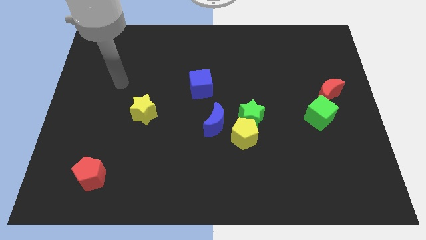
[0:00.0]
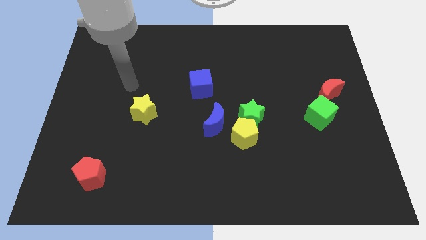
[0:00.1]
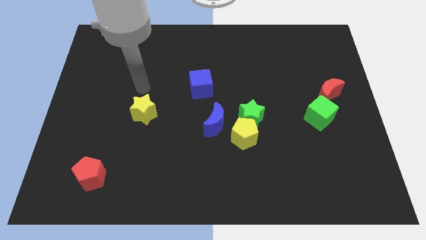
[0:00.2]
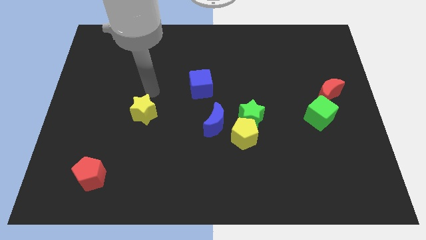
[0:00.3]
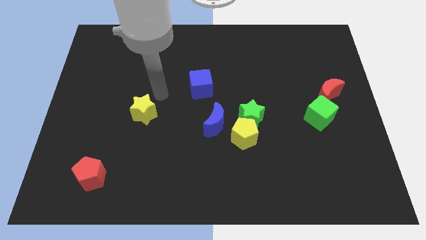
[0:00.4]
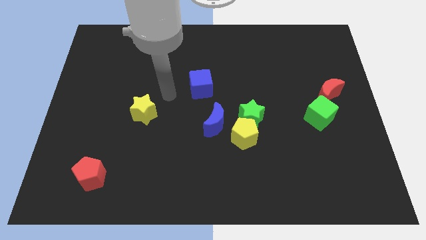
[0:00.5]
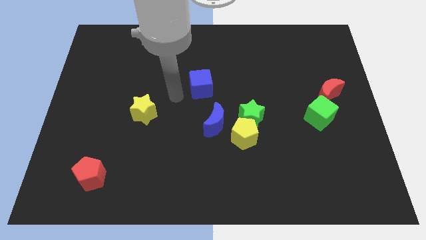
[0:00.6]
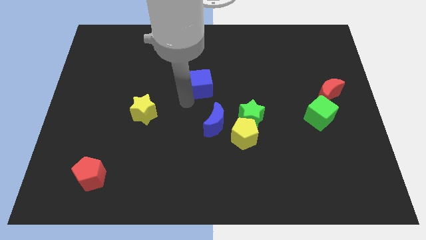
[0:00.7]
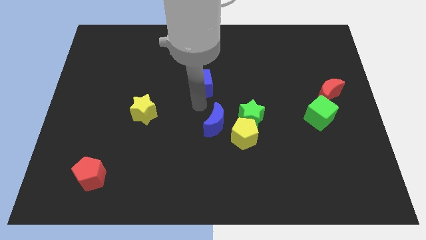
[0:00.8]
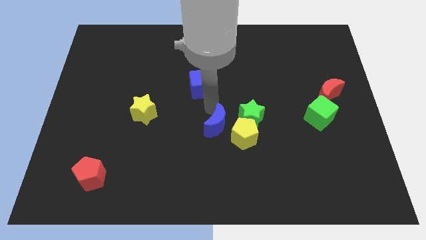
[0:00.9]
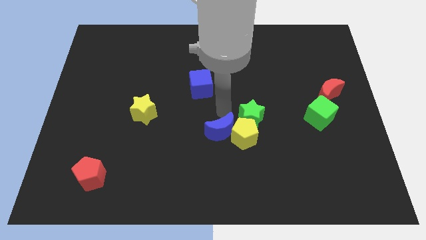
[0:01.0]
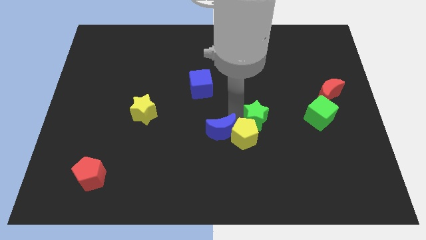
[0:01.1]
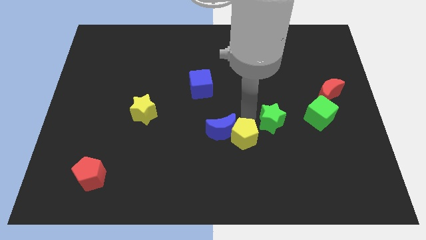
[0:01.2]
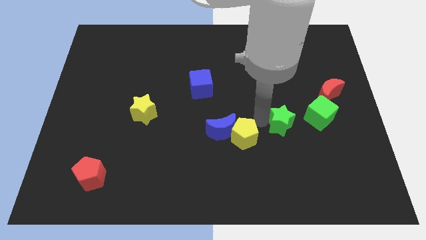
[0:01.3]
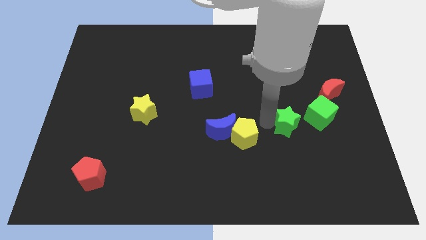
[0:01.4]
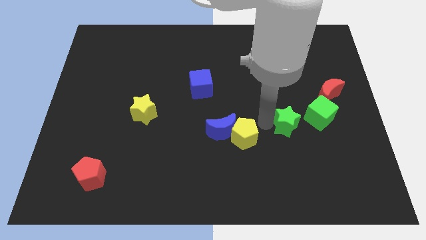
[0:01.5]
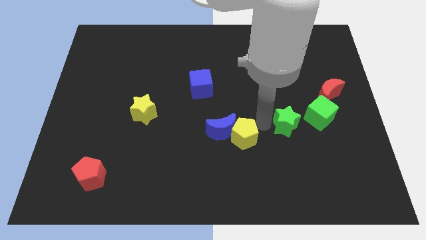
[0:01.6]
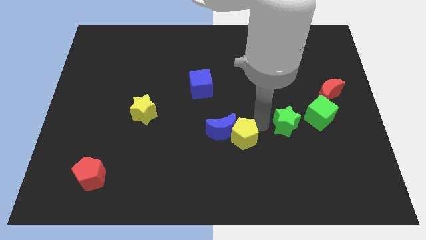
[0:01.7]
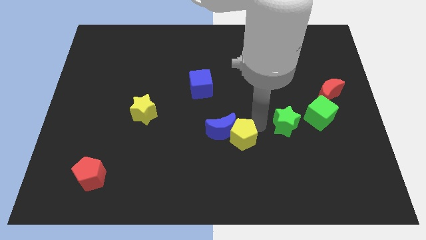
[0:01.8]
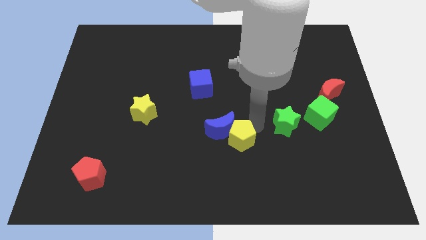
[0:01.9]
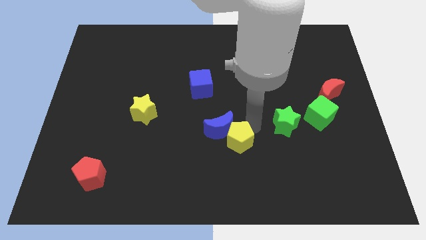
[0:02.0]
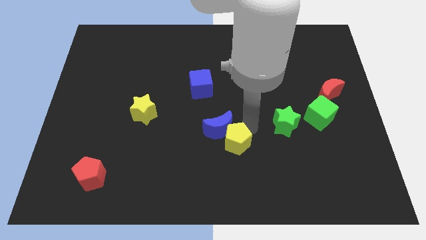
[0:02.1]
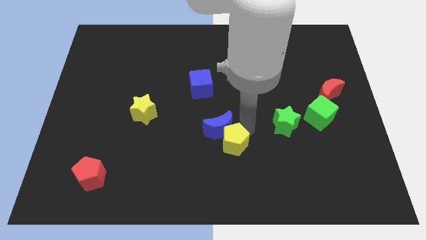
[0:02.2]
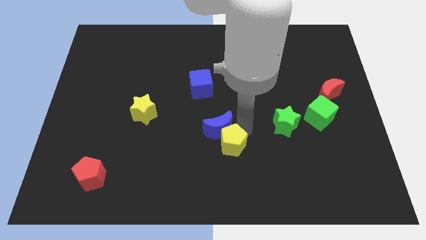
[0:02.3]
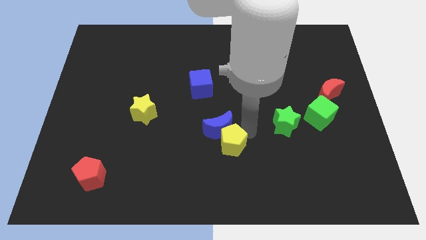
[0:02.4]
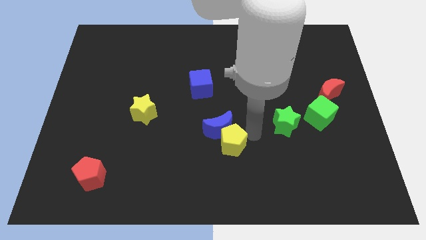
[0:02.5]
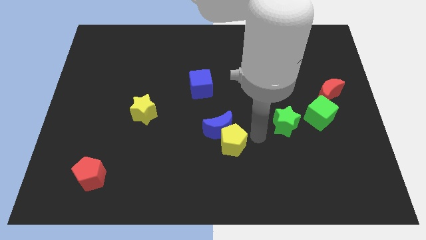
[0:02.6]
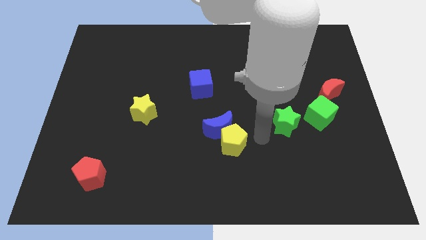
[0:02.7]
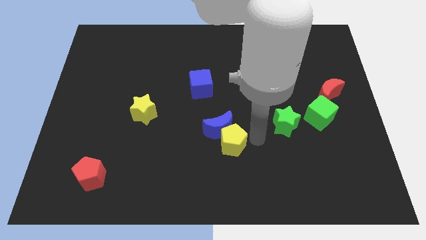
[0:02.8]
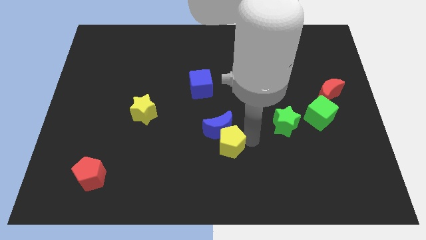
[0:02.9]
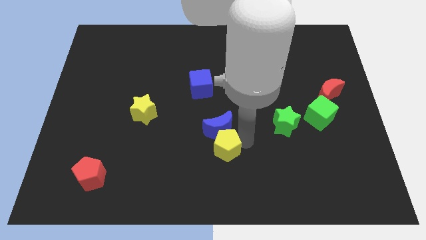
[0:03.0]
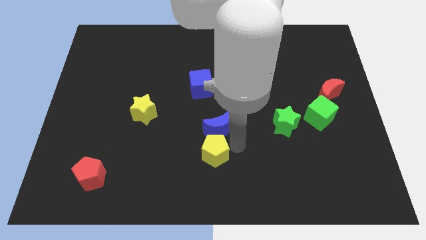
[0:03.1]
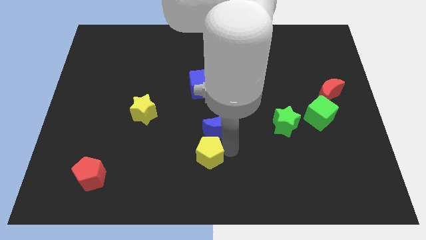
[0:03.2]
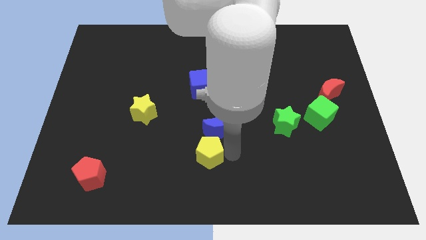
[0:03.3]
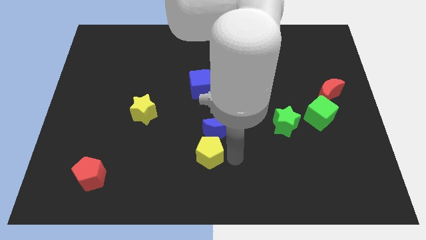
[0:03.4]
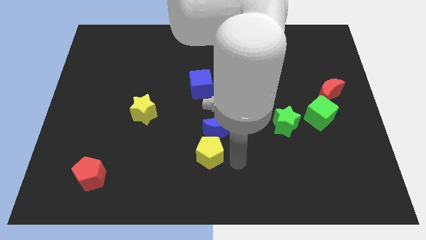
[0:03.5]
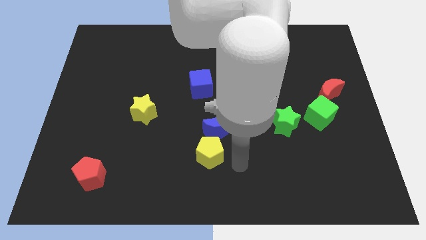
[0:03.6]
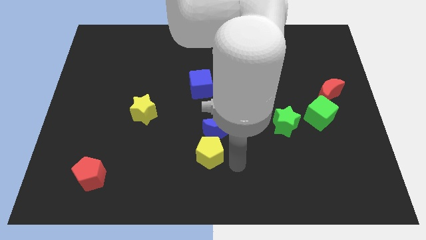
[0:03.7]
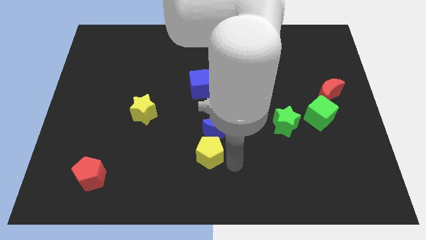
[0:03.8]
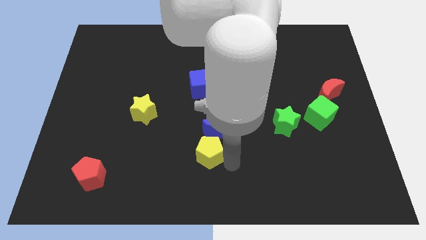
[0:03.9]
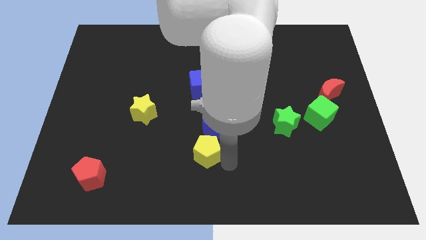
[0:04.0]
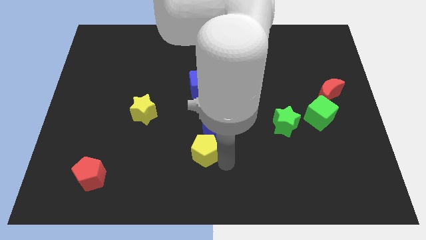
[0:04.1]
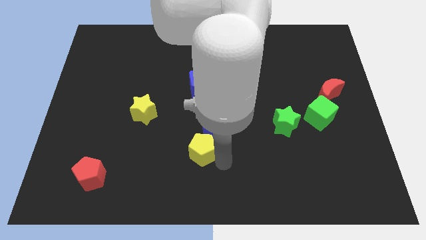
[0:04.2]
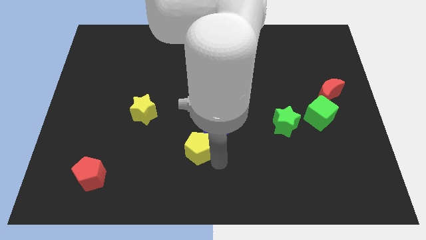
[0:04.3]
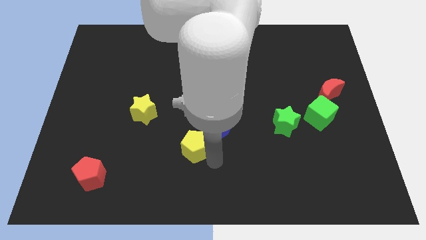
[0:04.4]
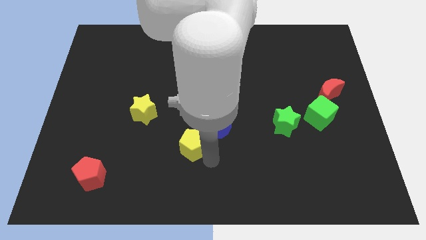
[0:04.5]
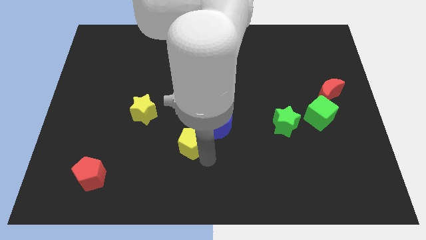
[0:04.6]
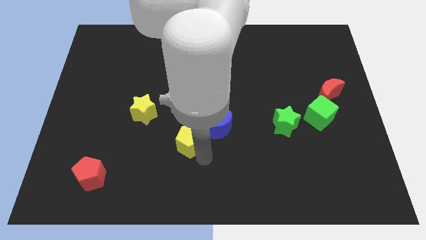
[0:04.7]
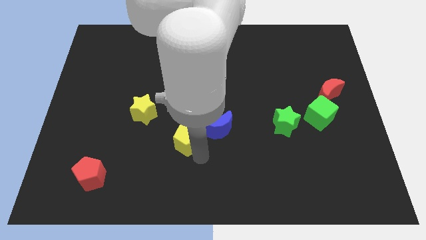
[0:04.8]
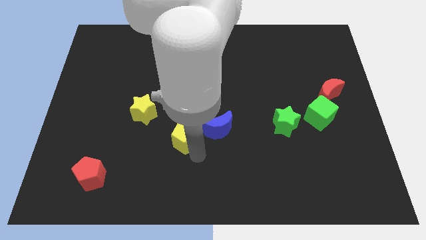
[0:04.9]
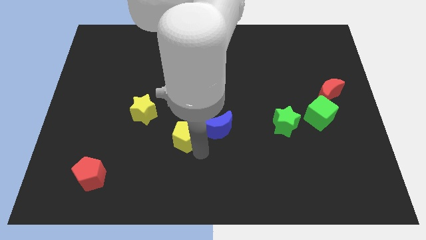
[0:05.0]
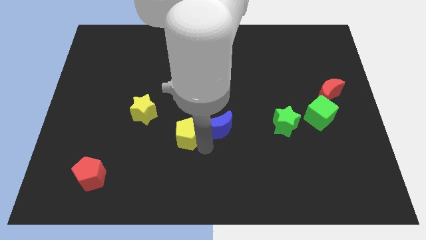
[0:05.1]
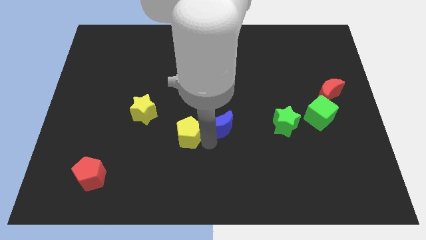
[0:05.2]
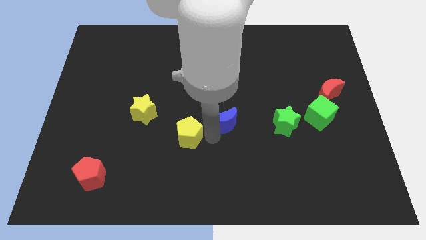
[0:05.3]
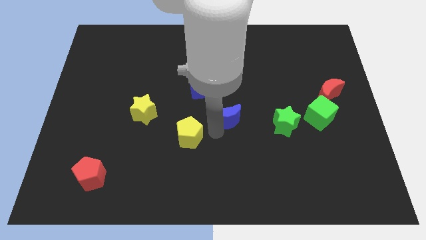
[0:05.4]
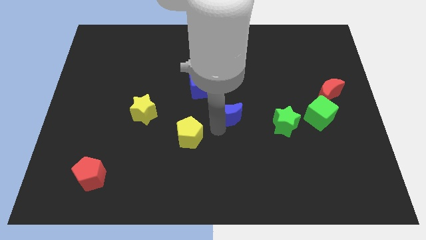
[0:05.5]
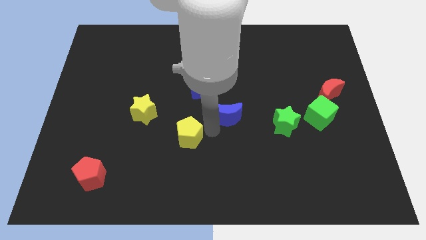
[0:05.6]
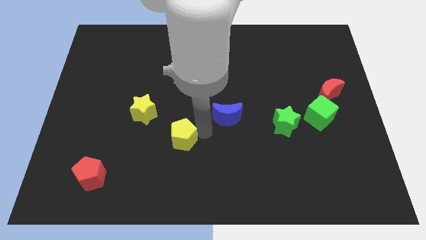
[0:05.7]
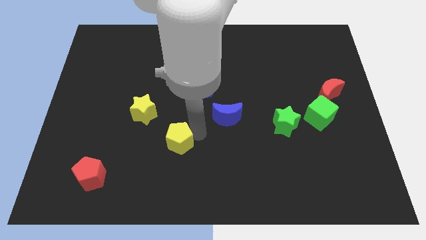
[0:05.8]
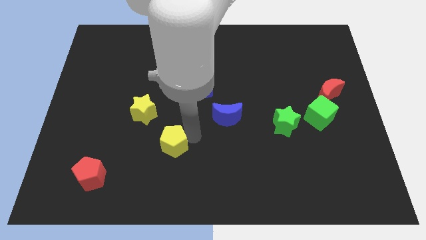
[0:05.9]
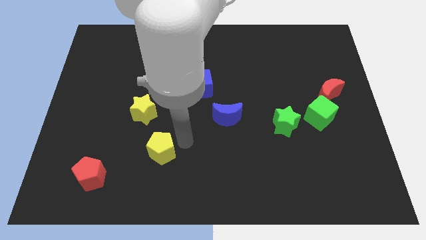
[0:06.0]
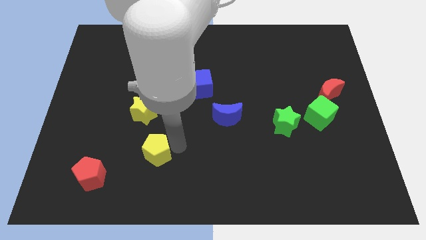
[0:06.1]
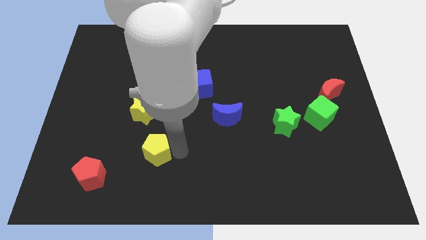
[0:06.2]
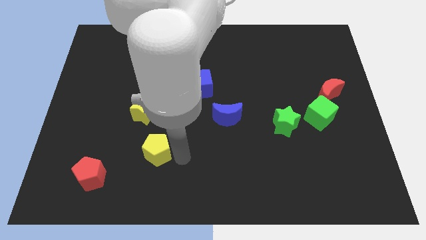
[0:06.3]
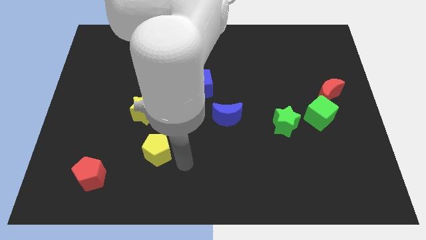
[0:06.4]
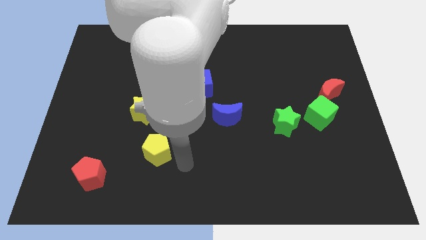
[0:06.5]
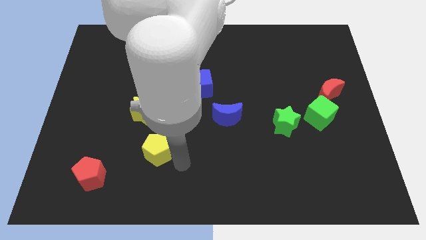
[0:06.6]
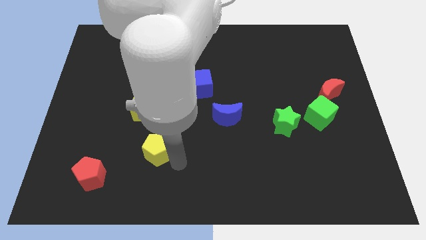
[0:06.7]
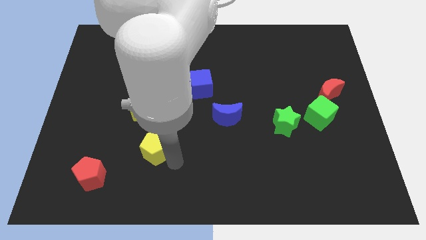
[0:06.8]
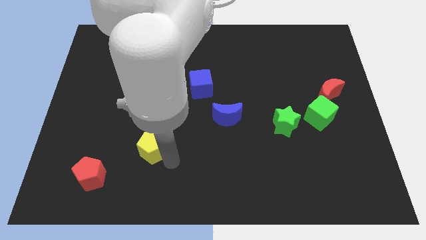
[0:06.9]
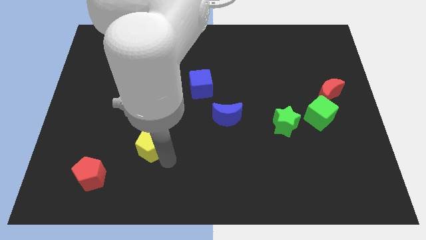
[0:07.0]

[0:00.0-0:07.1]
move the yellow pentagon left

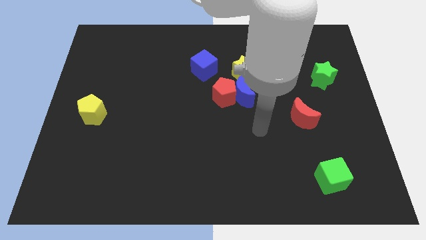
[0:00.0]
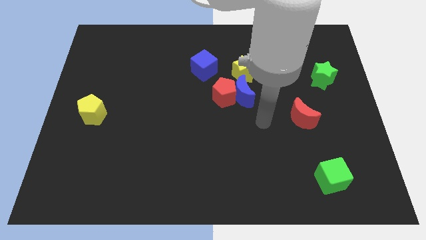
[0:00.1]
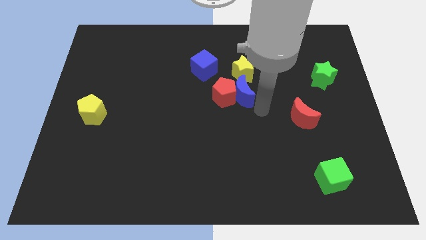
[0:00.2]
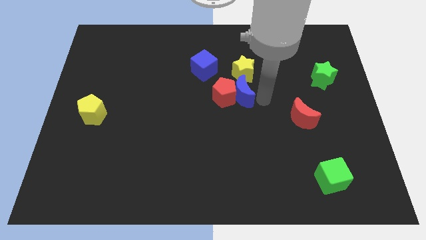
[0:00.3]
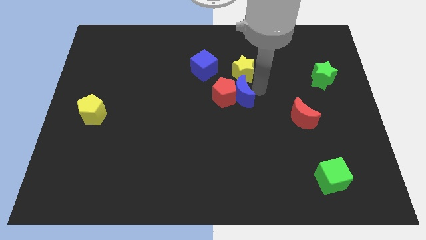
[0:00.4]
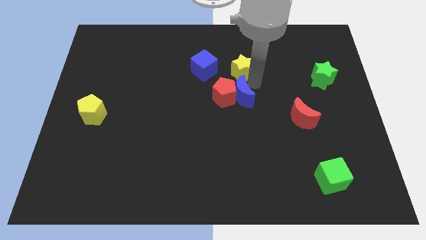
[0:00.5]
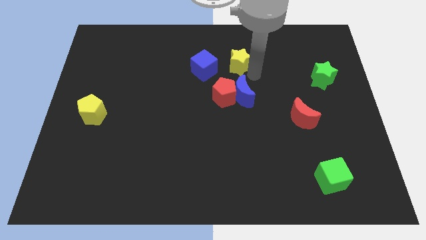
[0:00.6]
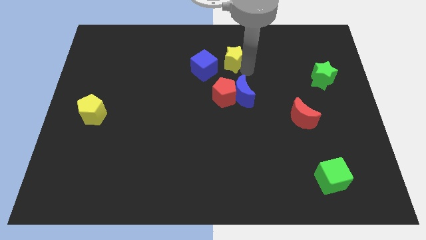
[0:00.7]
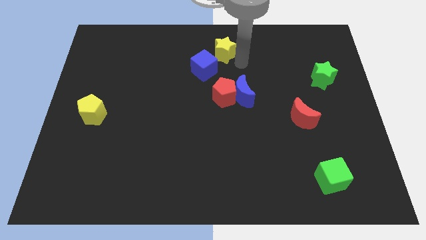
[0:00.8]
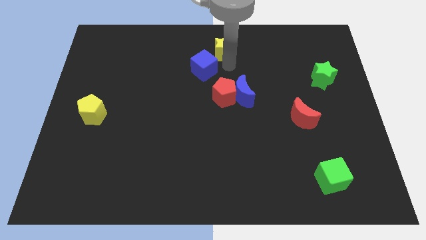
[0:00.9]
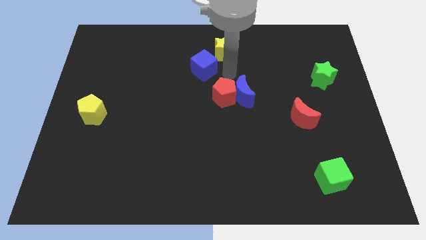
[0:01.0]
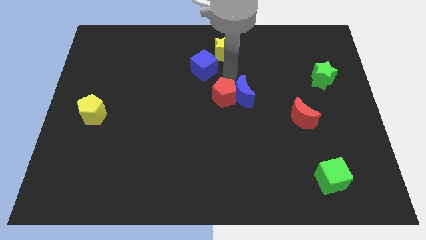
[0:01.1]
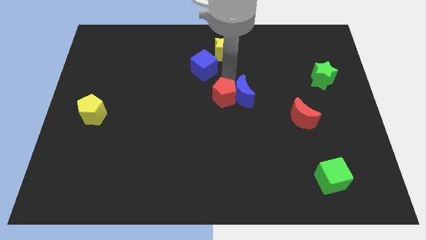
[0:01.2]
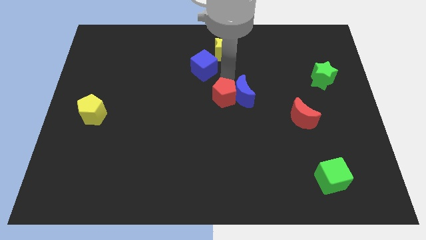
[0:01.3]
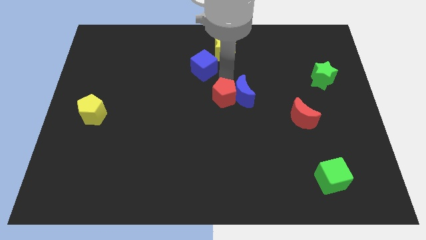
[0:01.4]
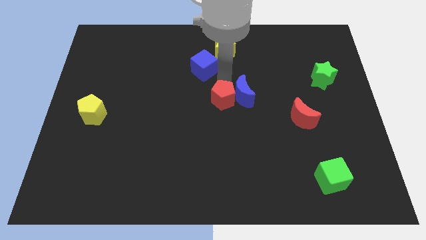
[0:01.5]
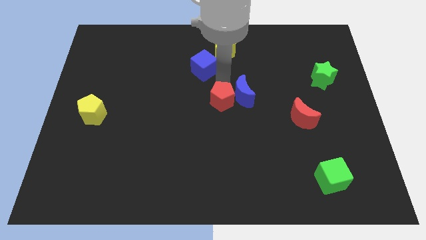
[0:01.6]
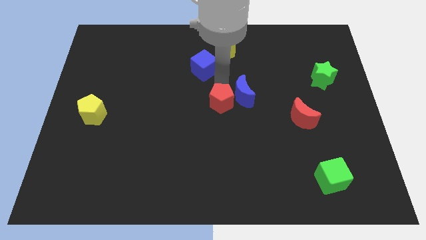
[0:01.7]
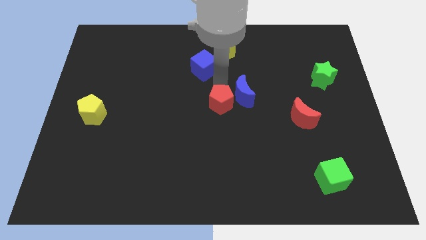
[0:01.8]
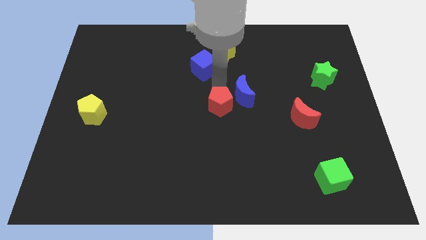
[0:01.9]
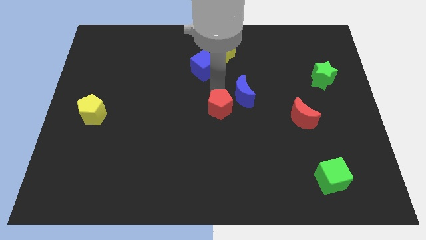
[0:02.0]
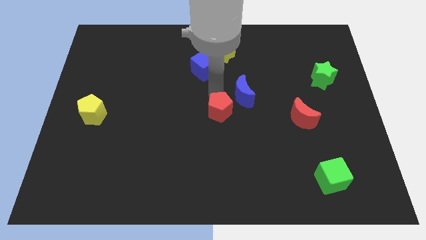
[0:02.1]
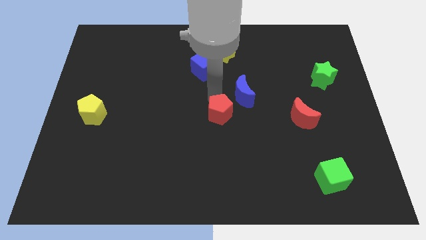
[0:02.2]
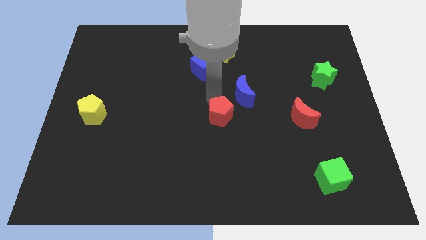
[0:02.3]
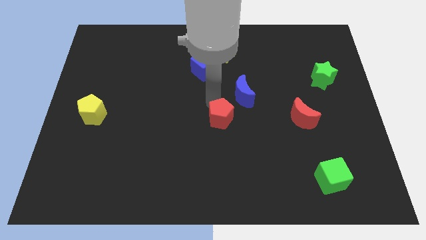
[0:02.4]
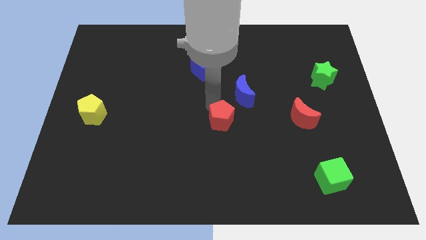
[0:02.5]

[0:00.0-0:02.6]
slightly move the red pentagon downwards
